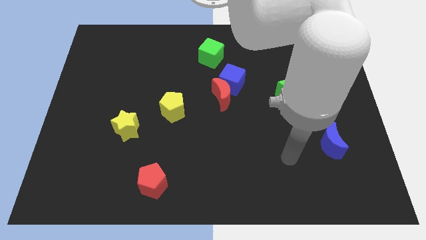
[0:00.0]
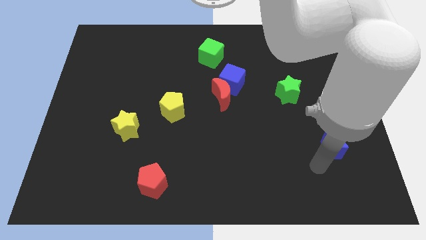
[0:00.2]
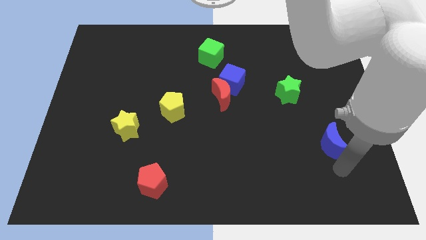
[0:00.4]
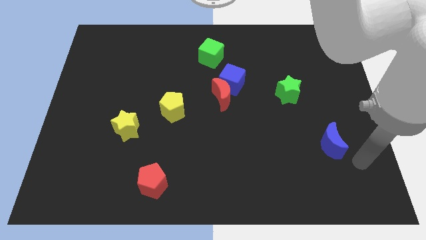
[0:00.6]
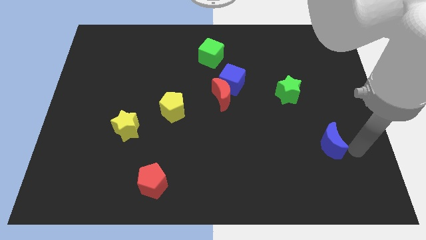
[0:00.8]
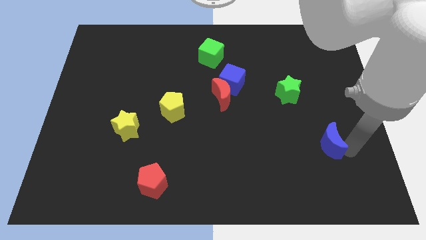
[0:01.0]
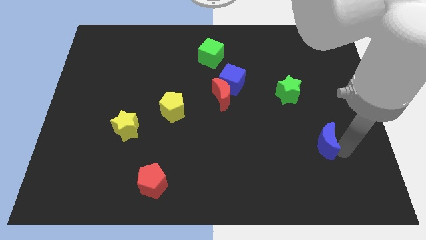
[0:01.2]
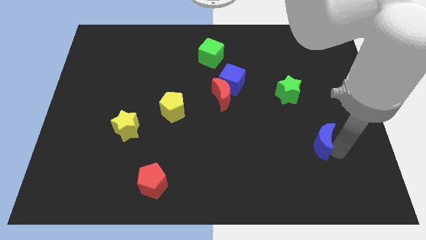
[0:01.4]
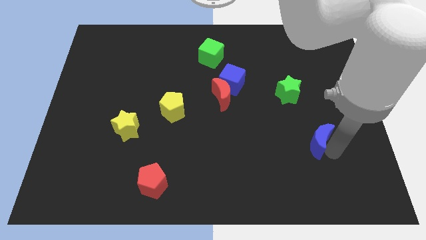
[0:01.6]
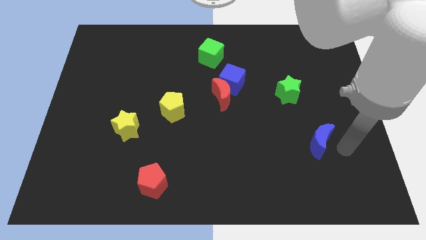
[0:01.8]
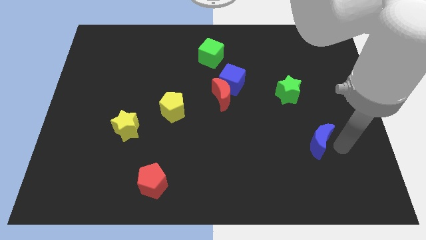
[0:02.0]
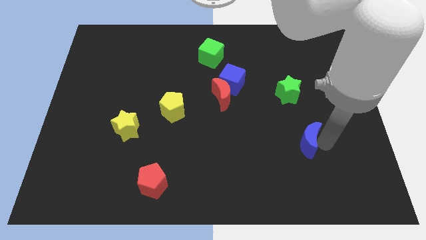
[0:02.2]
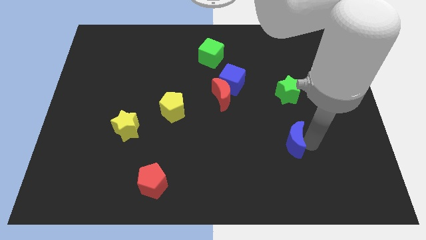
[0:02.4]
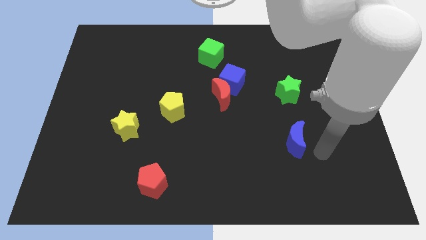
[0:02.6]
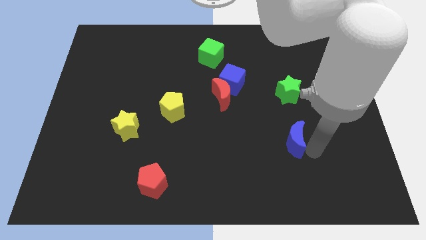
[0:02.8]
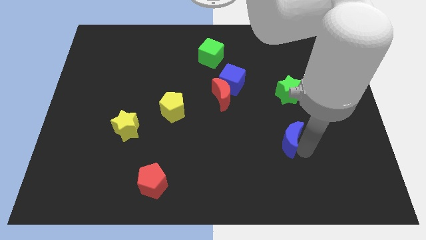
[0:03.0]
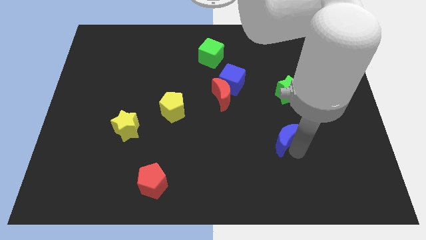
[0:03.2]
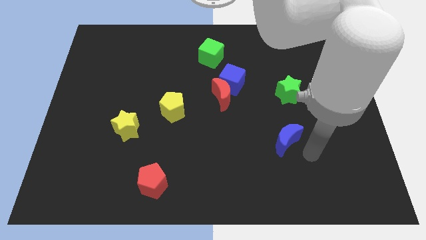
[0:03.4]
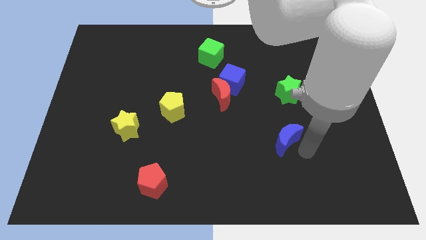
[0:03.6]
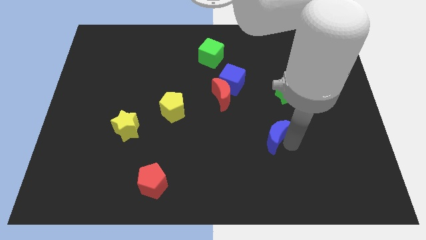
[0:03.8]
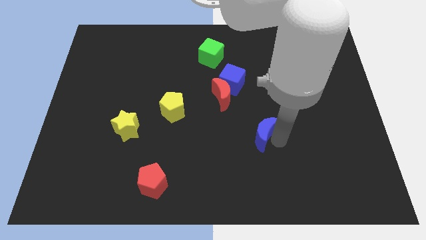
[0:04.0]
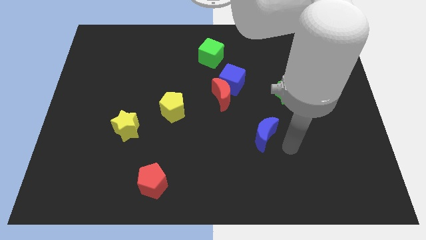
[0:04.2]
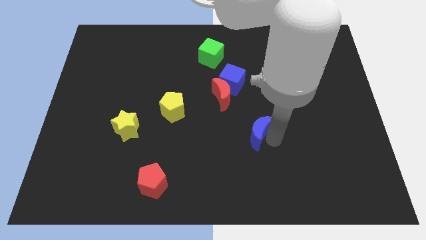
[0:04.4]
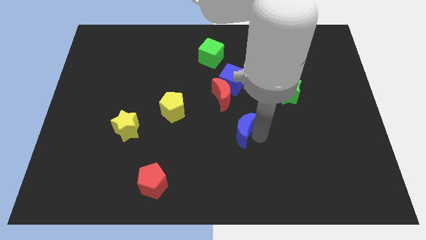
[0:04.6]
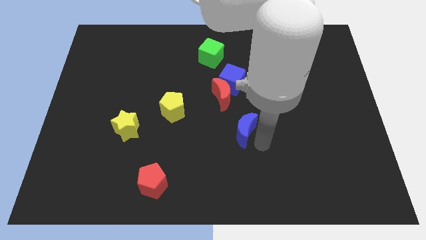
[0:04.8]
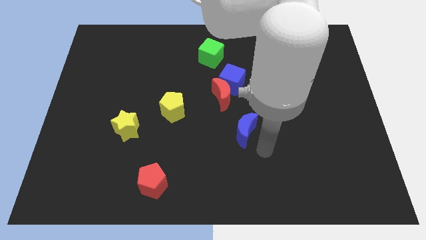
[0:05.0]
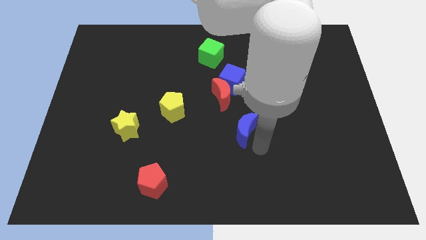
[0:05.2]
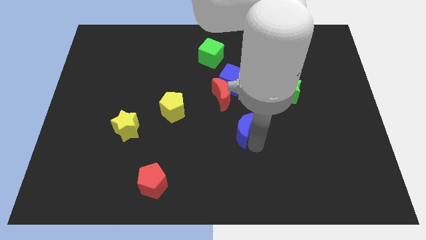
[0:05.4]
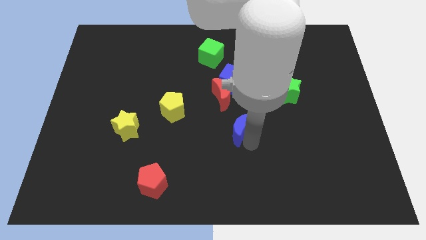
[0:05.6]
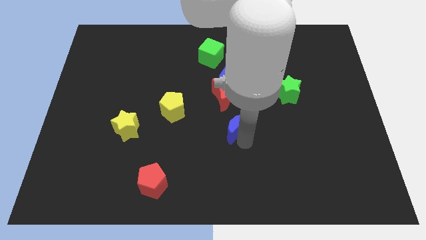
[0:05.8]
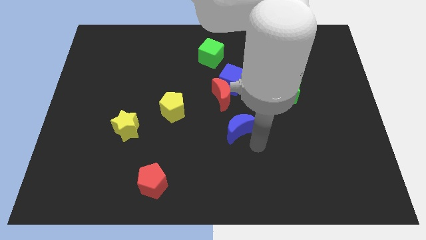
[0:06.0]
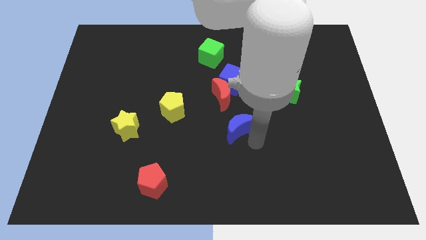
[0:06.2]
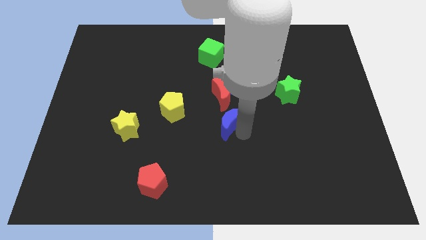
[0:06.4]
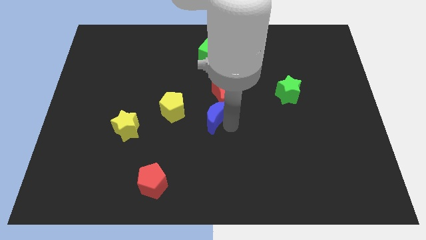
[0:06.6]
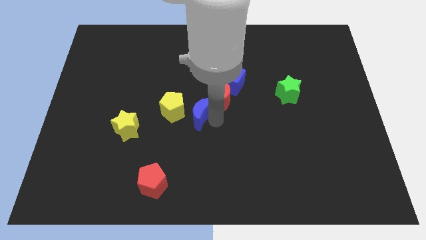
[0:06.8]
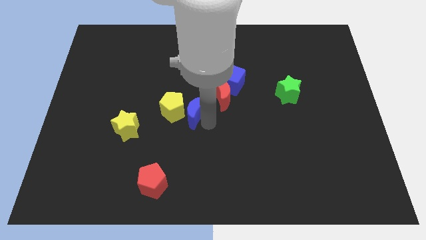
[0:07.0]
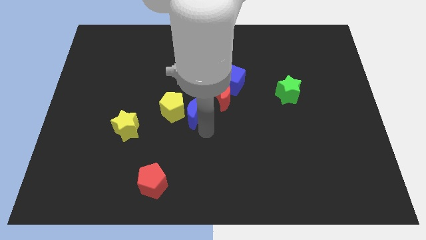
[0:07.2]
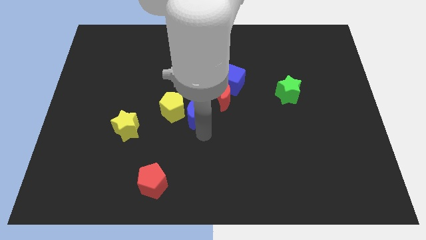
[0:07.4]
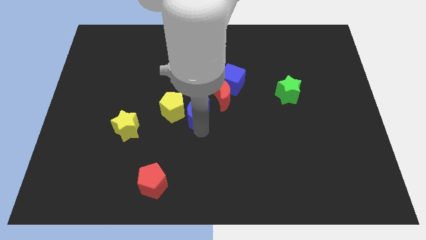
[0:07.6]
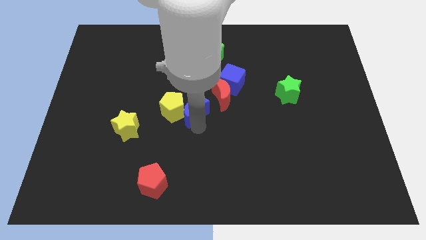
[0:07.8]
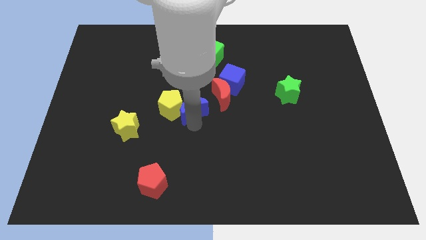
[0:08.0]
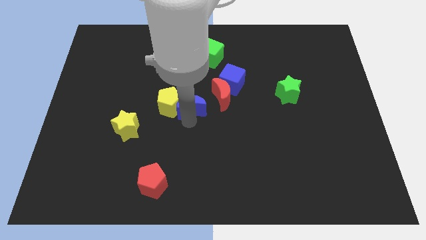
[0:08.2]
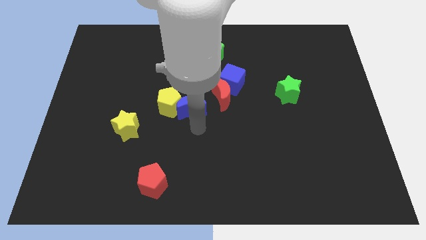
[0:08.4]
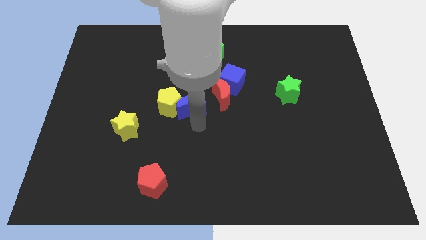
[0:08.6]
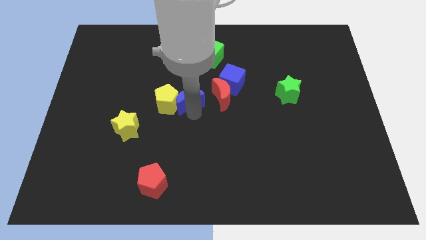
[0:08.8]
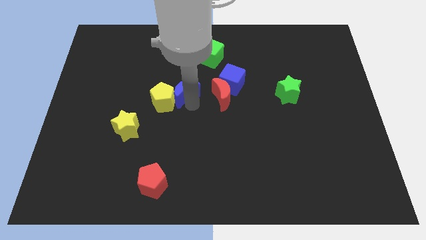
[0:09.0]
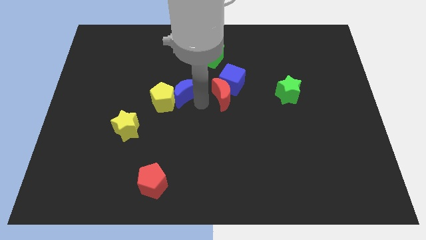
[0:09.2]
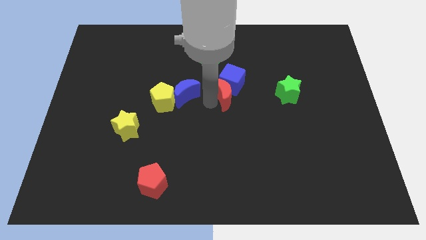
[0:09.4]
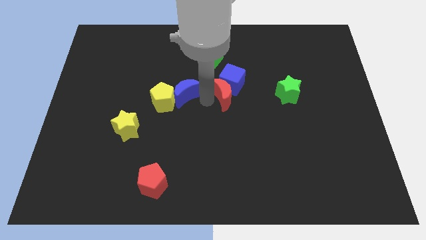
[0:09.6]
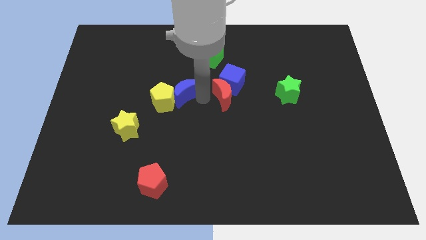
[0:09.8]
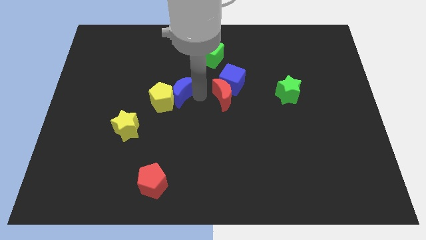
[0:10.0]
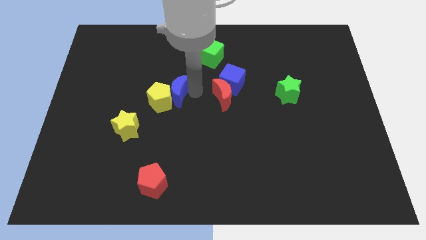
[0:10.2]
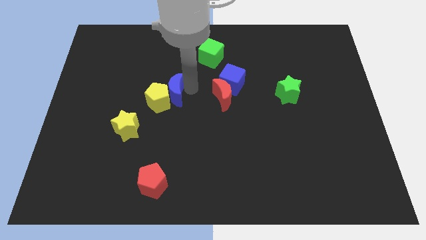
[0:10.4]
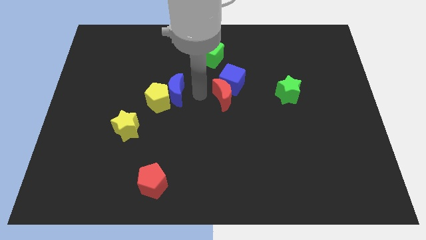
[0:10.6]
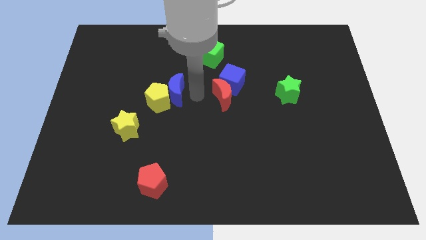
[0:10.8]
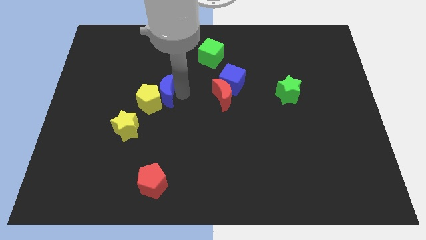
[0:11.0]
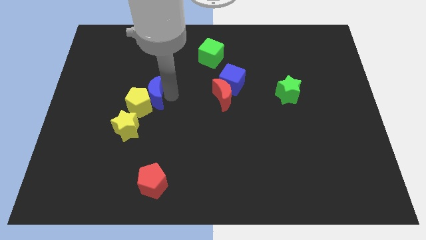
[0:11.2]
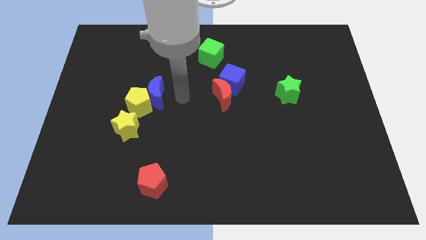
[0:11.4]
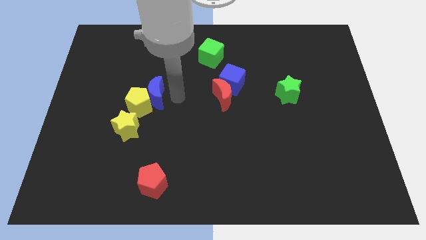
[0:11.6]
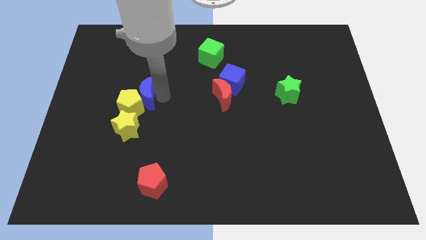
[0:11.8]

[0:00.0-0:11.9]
move the blue moon to the top side of the yellow star
